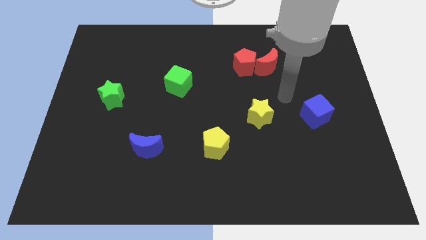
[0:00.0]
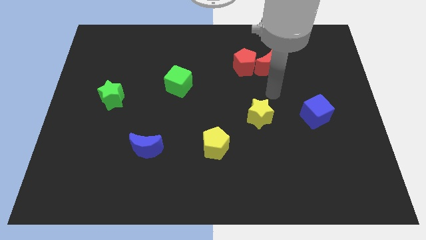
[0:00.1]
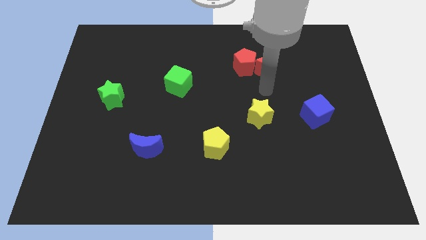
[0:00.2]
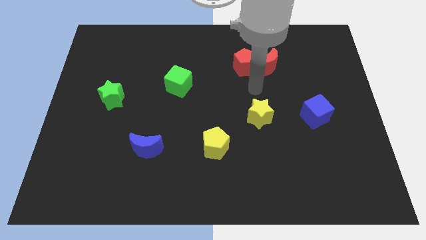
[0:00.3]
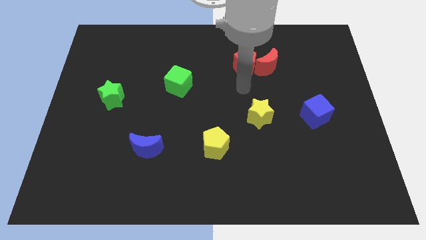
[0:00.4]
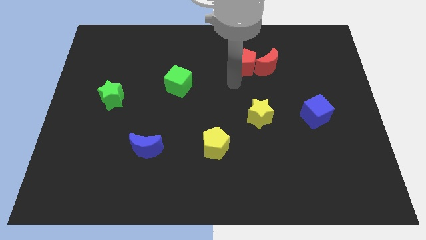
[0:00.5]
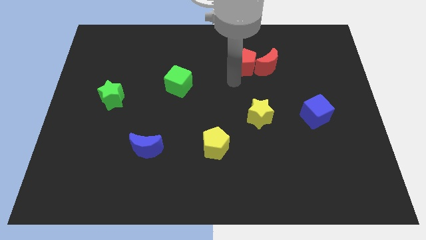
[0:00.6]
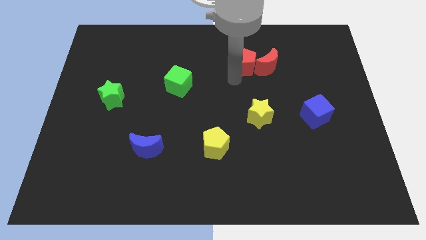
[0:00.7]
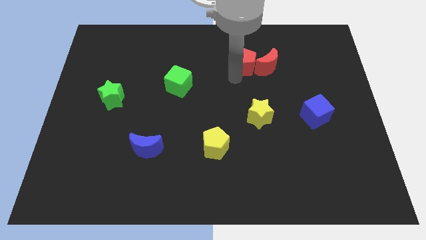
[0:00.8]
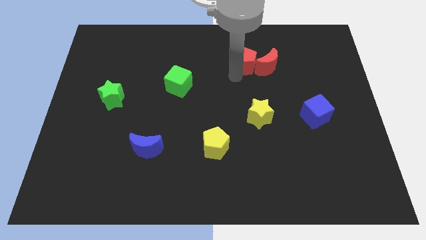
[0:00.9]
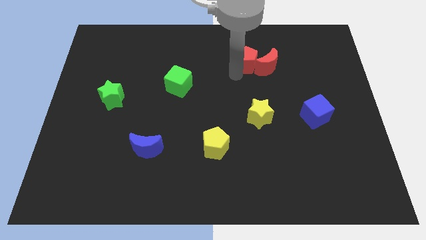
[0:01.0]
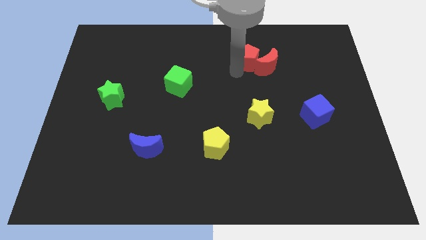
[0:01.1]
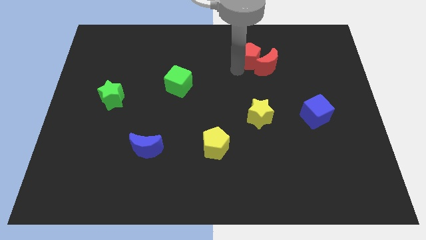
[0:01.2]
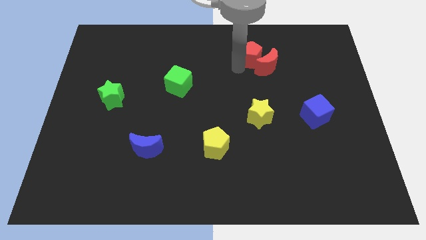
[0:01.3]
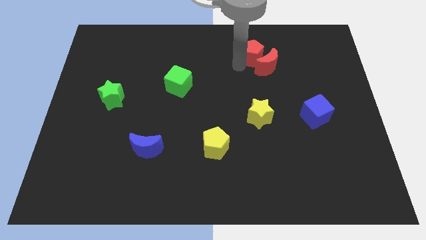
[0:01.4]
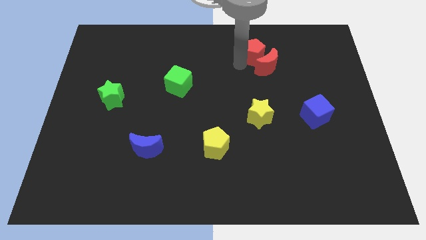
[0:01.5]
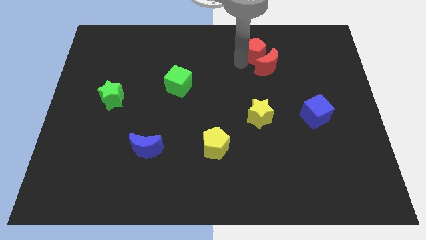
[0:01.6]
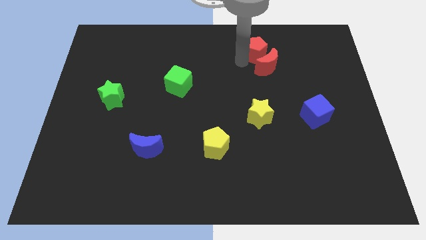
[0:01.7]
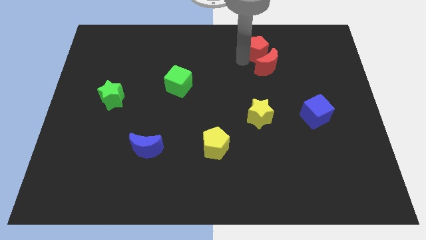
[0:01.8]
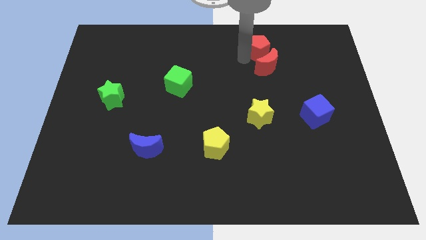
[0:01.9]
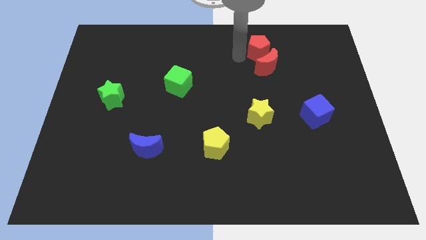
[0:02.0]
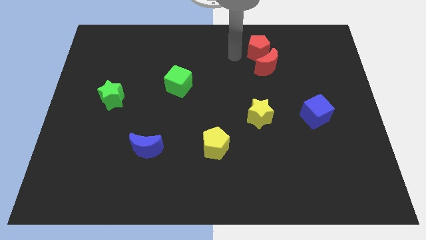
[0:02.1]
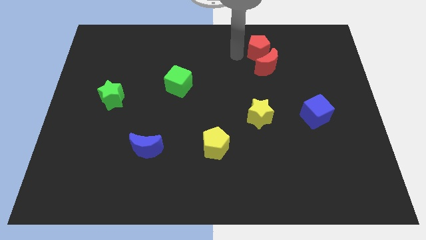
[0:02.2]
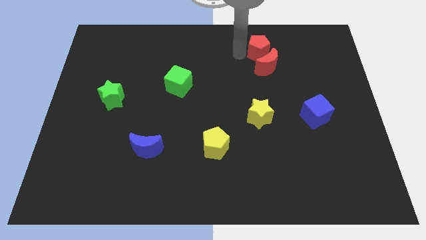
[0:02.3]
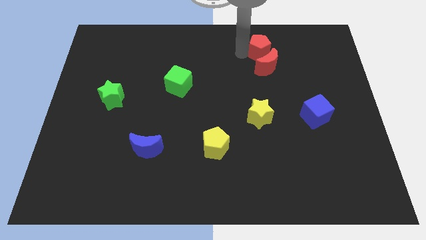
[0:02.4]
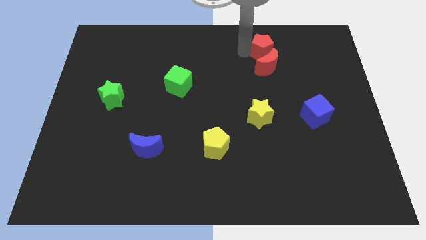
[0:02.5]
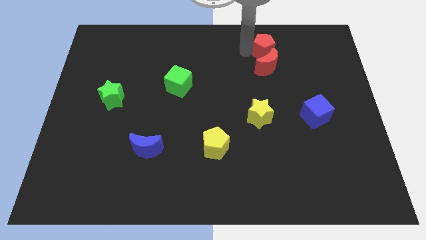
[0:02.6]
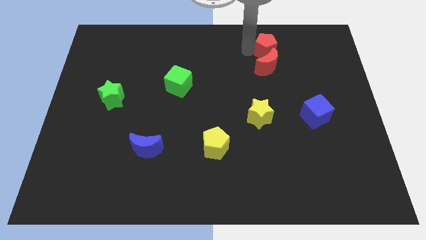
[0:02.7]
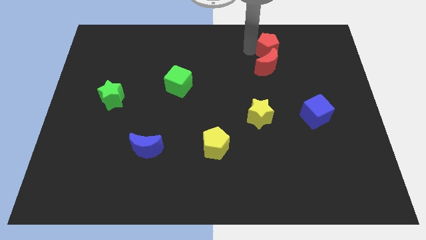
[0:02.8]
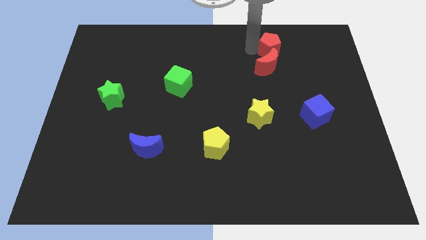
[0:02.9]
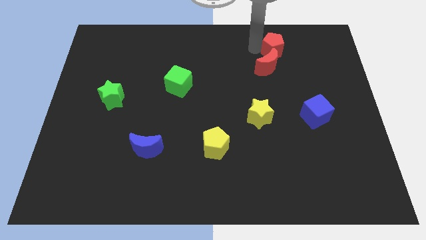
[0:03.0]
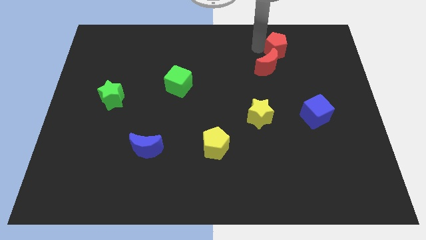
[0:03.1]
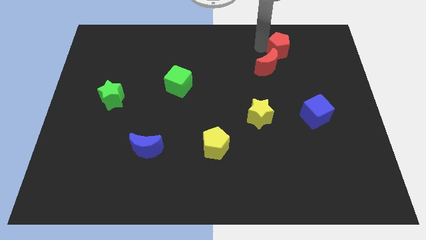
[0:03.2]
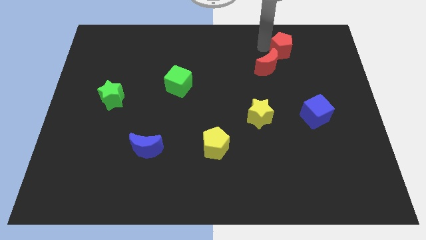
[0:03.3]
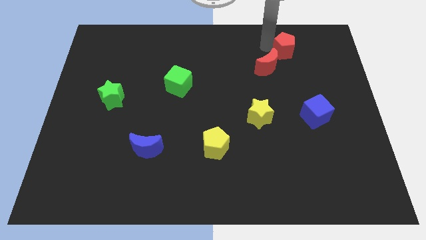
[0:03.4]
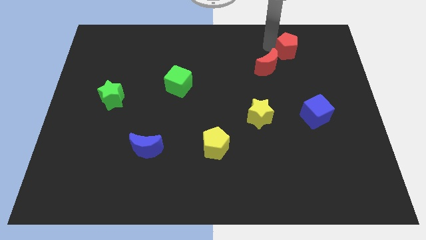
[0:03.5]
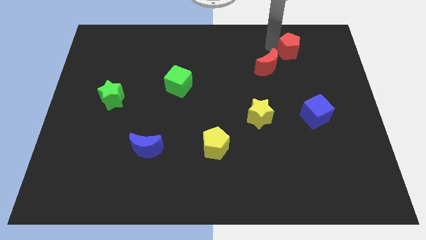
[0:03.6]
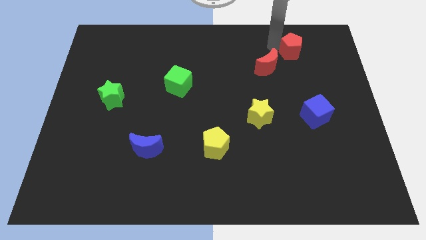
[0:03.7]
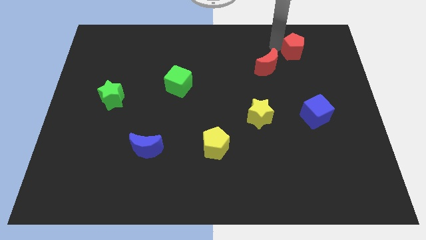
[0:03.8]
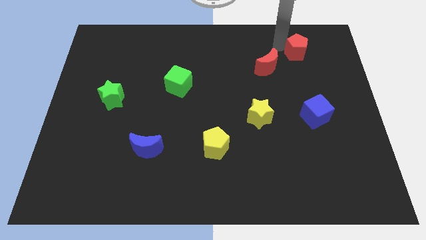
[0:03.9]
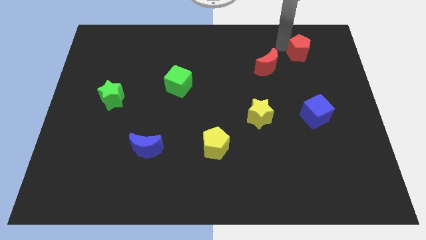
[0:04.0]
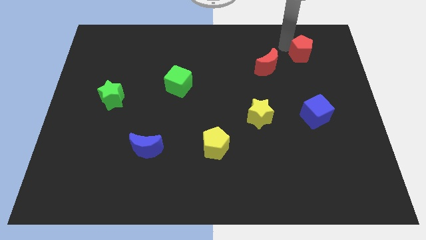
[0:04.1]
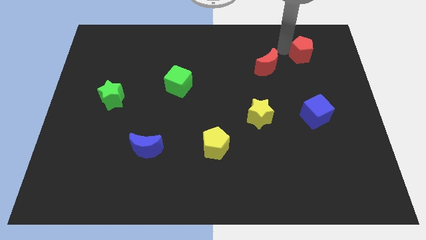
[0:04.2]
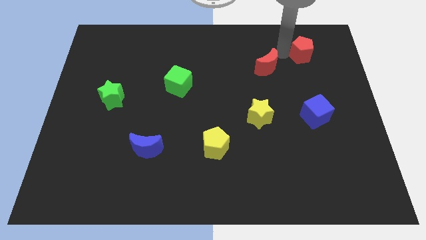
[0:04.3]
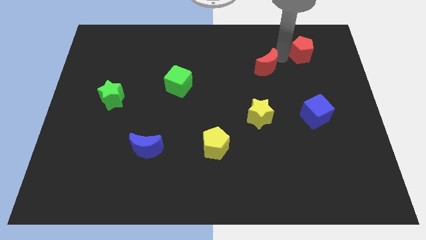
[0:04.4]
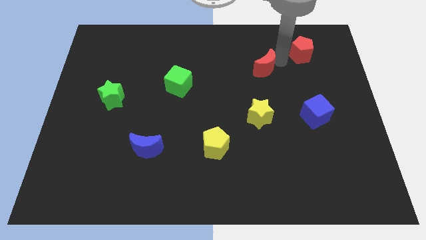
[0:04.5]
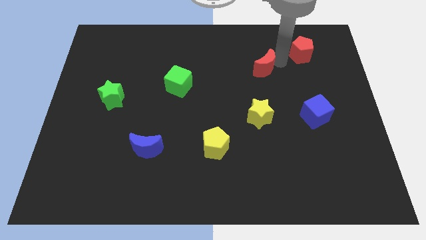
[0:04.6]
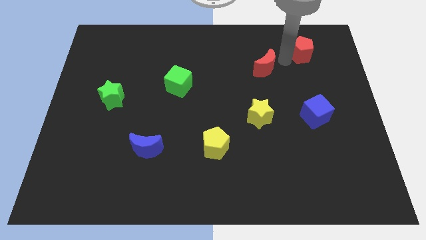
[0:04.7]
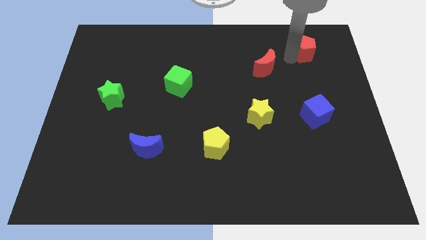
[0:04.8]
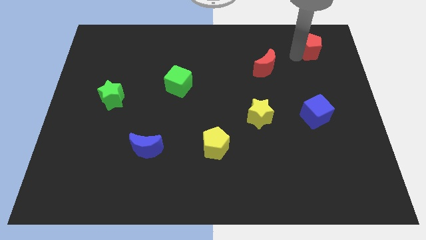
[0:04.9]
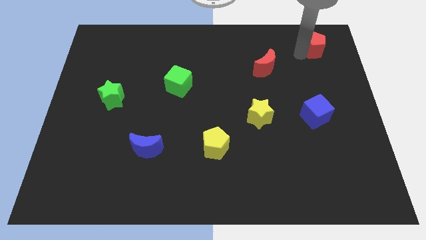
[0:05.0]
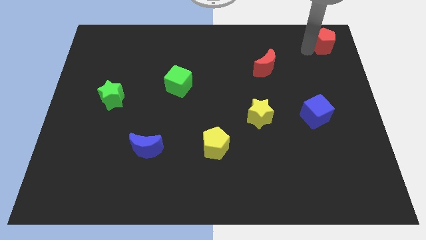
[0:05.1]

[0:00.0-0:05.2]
slide the red pentagon to the top right corner

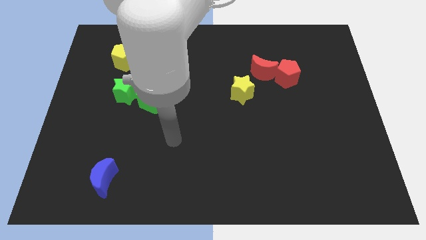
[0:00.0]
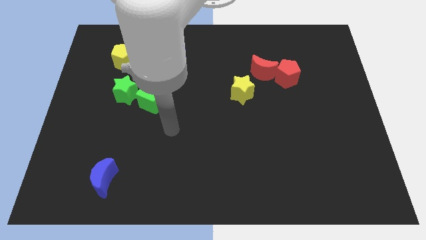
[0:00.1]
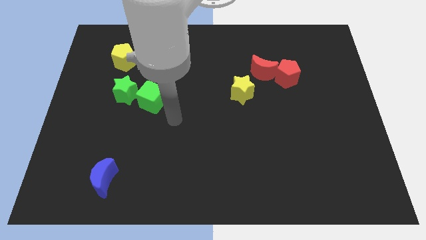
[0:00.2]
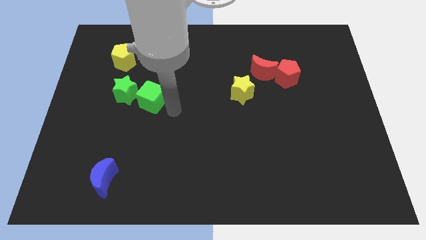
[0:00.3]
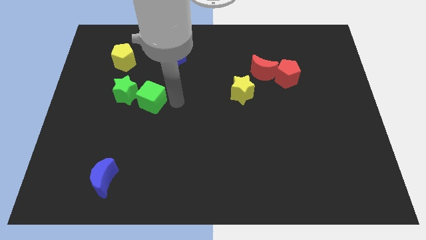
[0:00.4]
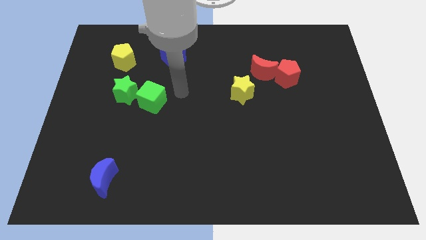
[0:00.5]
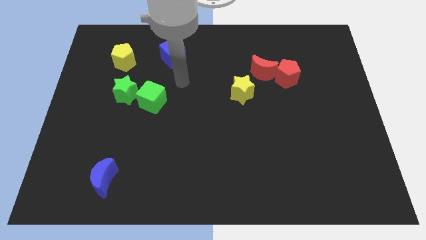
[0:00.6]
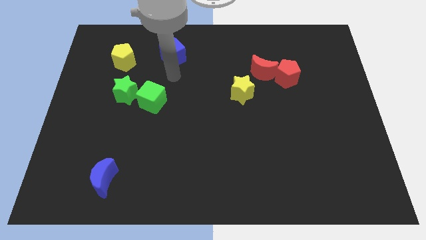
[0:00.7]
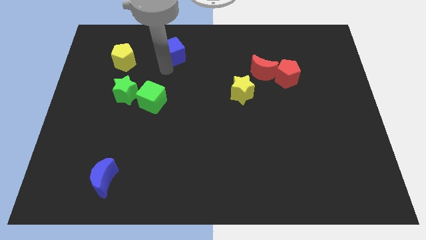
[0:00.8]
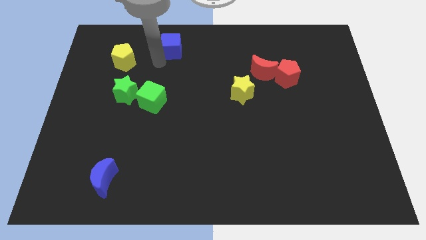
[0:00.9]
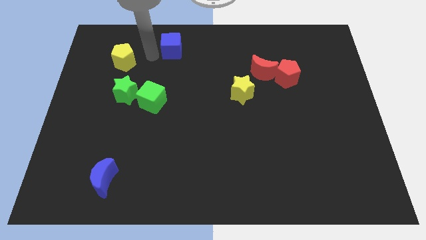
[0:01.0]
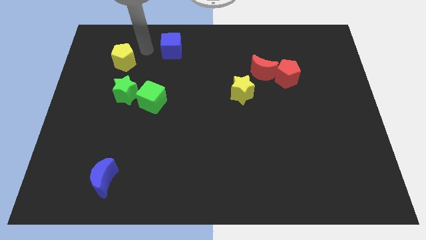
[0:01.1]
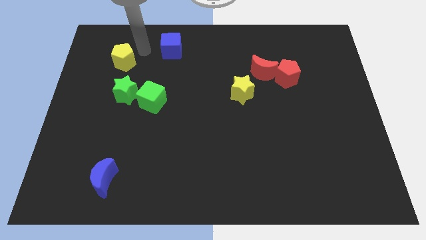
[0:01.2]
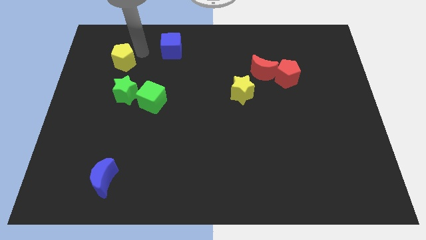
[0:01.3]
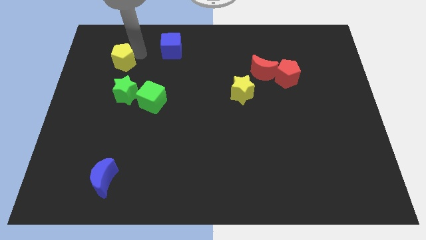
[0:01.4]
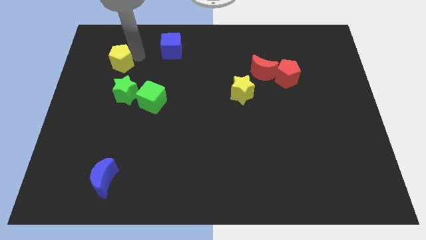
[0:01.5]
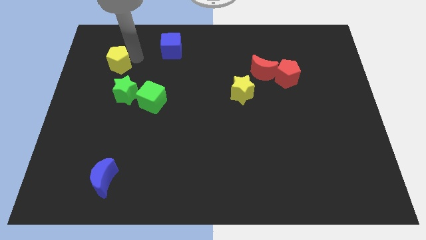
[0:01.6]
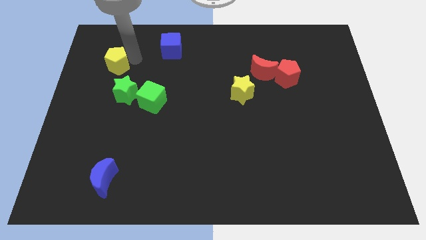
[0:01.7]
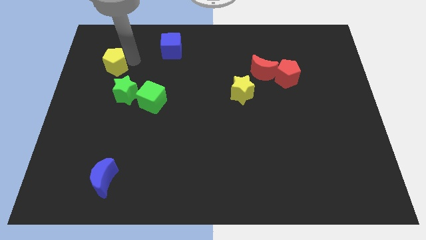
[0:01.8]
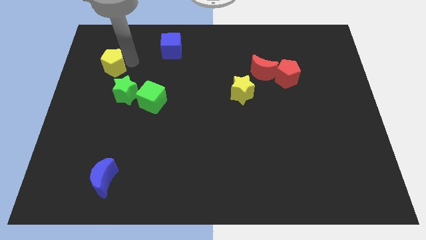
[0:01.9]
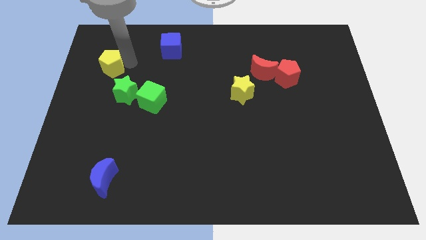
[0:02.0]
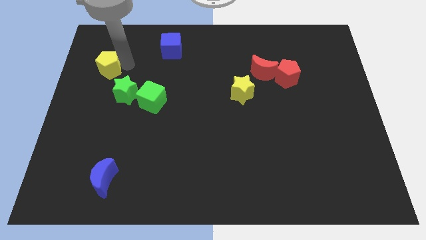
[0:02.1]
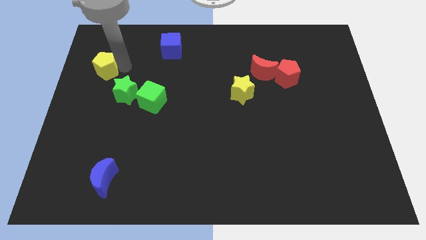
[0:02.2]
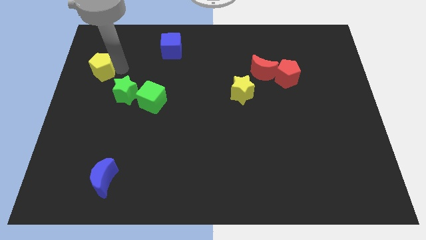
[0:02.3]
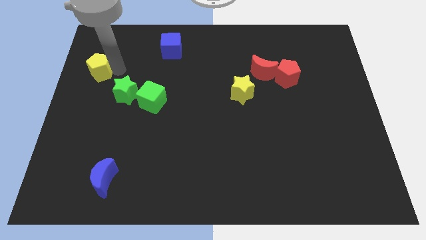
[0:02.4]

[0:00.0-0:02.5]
slide the yellow pentagon to the left side
